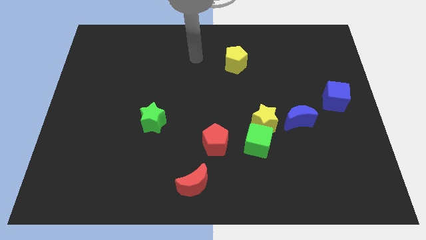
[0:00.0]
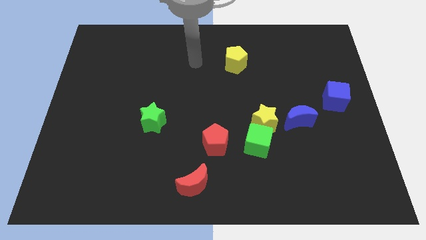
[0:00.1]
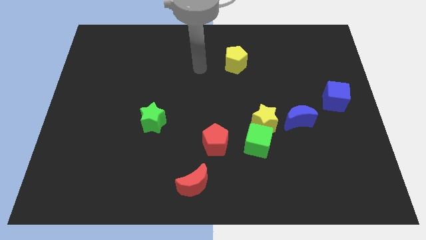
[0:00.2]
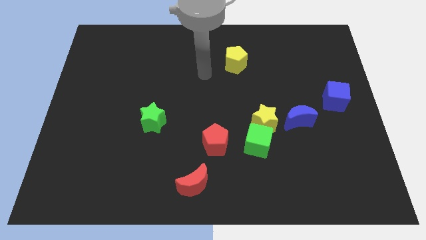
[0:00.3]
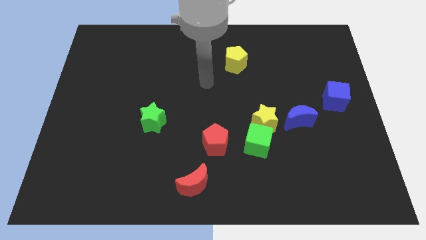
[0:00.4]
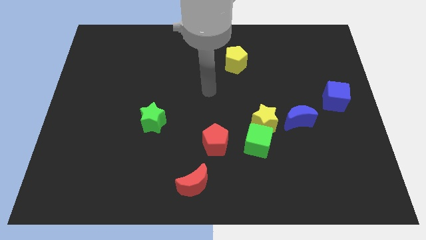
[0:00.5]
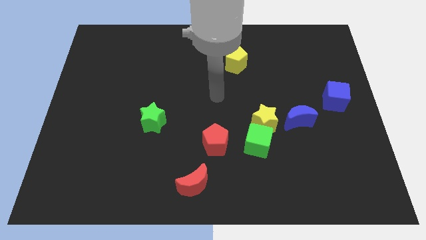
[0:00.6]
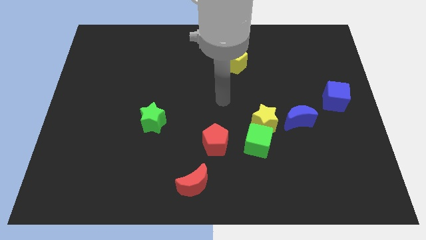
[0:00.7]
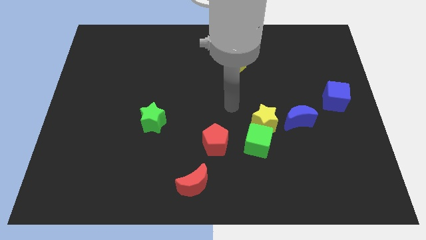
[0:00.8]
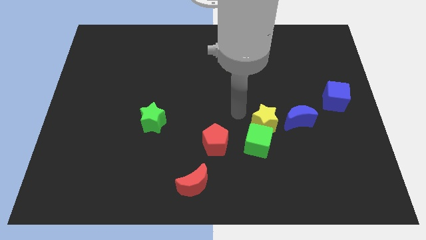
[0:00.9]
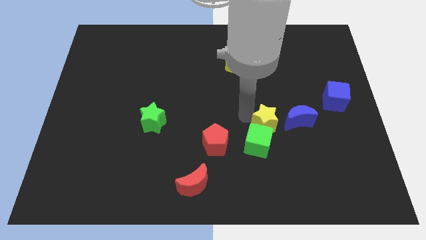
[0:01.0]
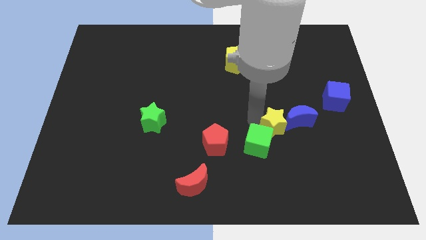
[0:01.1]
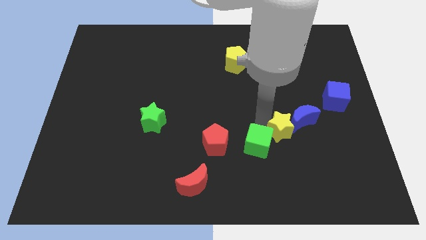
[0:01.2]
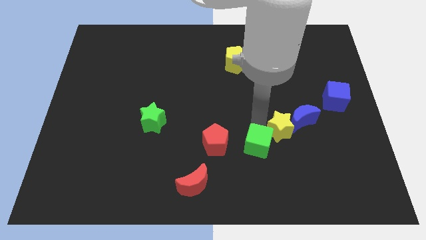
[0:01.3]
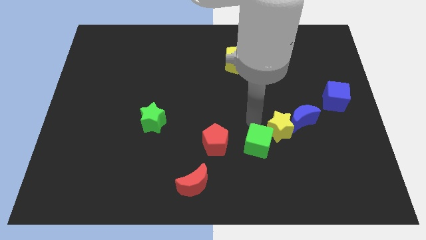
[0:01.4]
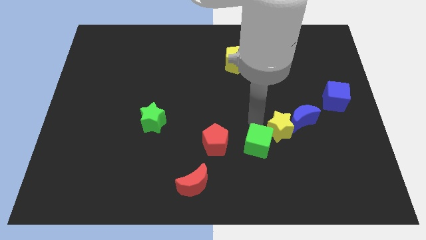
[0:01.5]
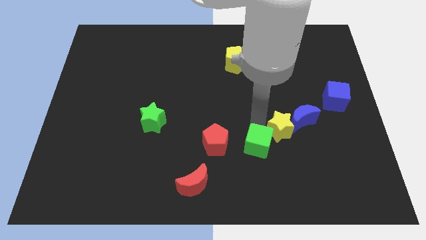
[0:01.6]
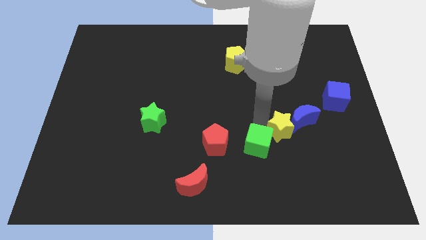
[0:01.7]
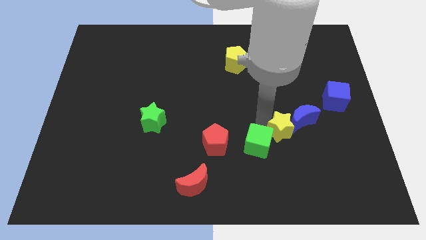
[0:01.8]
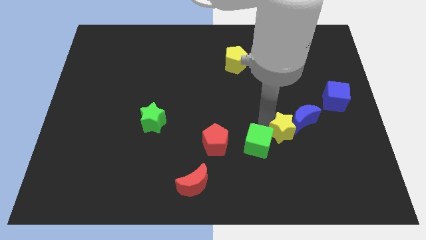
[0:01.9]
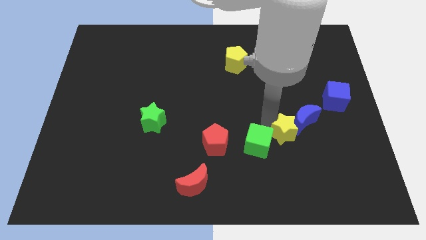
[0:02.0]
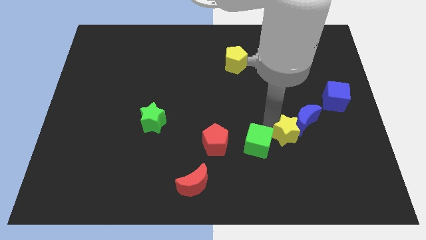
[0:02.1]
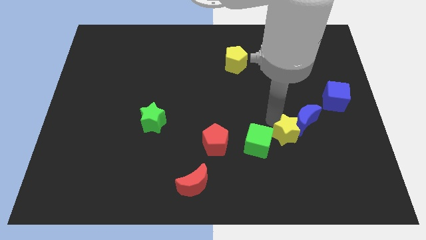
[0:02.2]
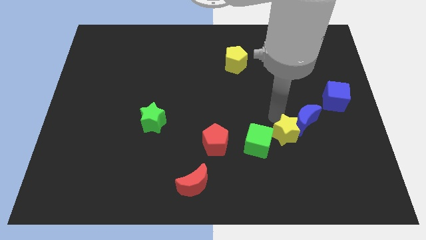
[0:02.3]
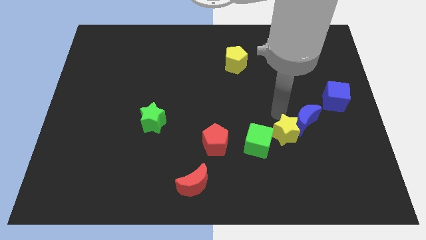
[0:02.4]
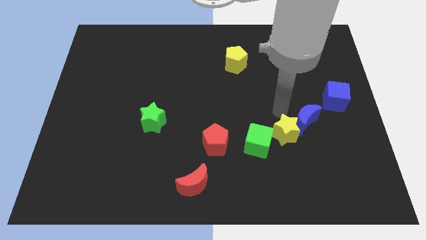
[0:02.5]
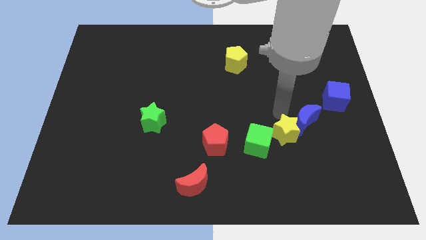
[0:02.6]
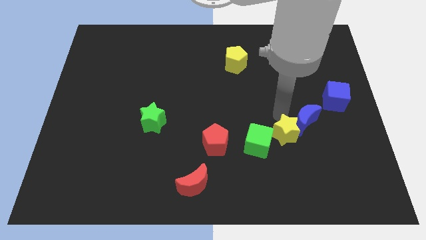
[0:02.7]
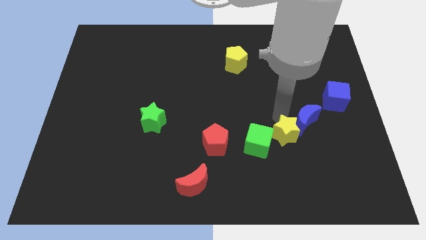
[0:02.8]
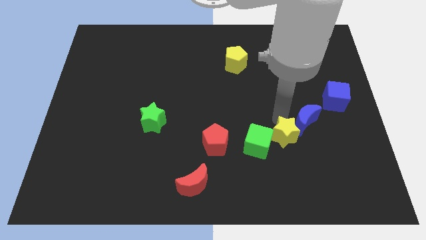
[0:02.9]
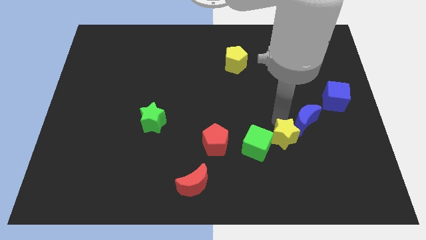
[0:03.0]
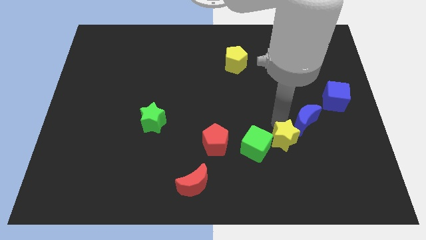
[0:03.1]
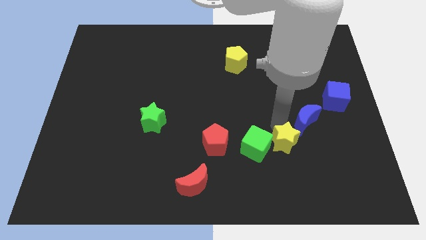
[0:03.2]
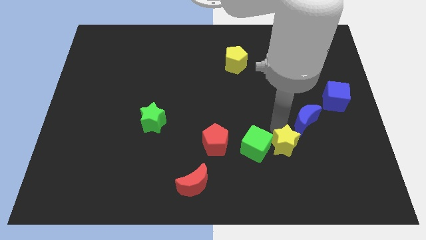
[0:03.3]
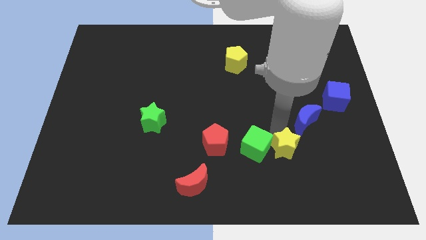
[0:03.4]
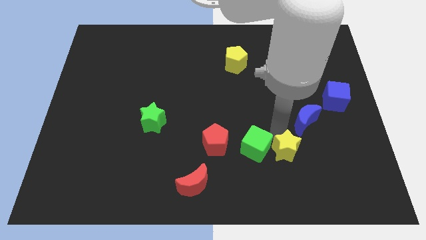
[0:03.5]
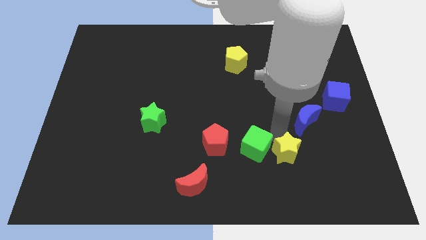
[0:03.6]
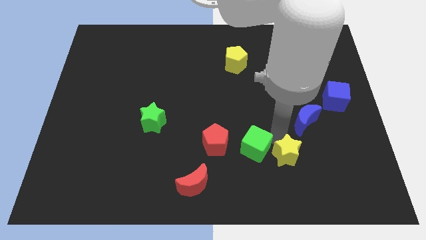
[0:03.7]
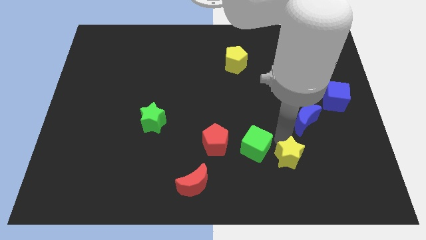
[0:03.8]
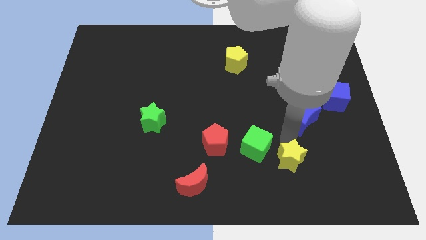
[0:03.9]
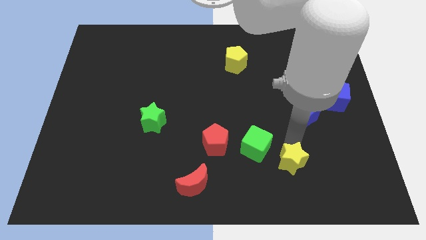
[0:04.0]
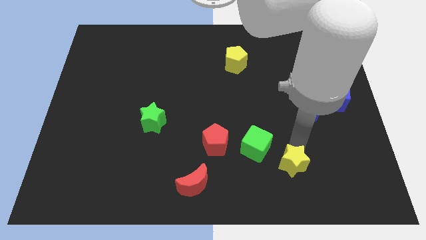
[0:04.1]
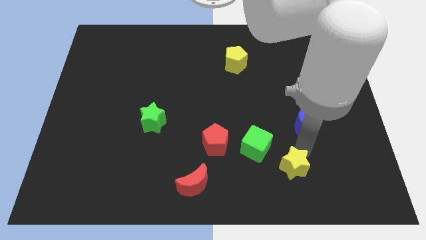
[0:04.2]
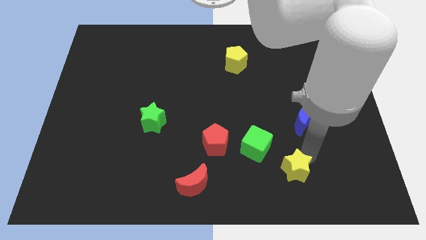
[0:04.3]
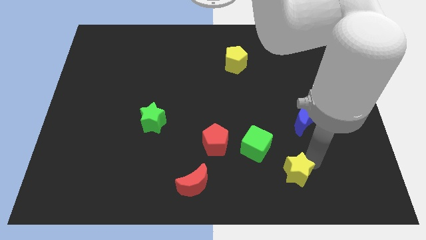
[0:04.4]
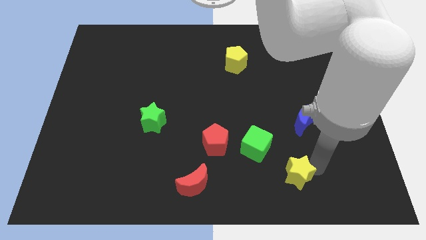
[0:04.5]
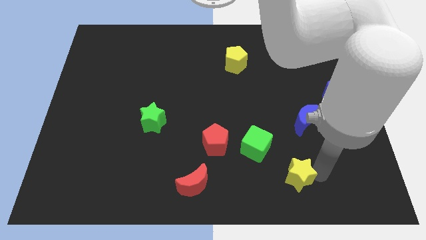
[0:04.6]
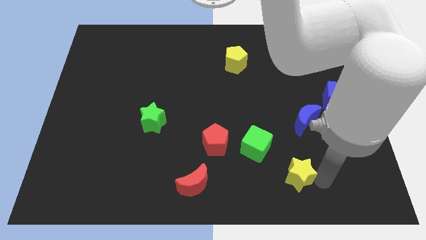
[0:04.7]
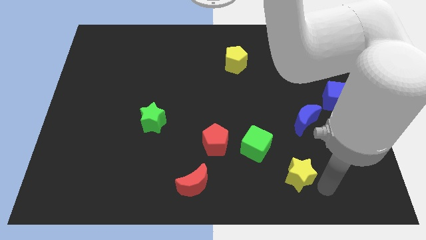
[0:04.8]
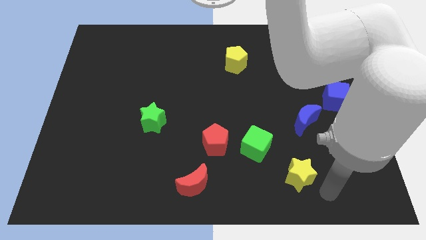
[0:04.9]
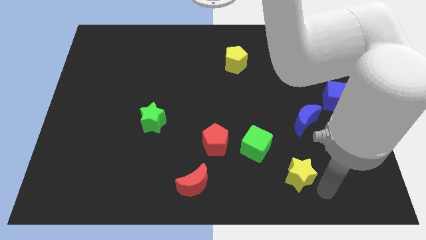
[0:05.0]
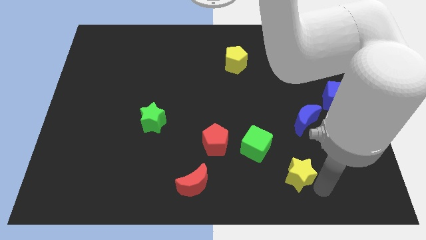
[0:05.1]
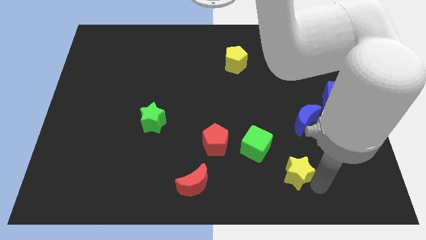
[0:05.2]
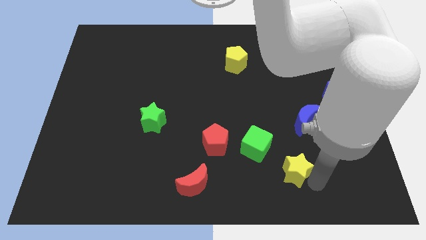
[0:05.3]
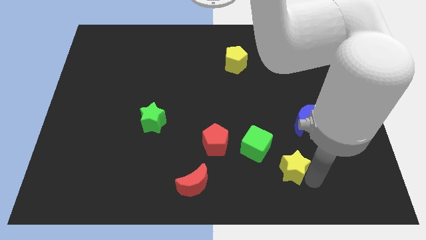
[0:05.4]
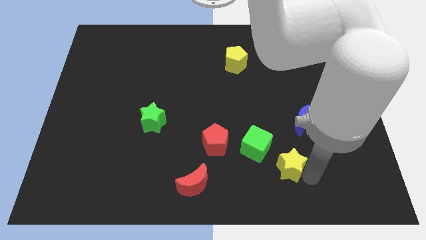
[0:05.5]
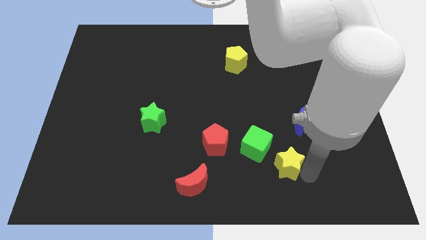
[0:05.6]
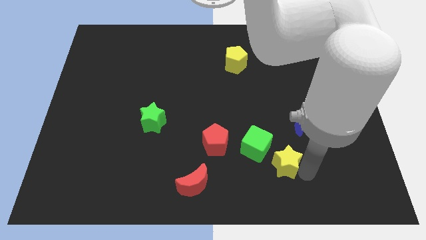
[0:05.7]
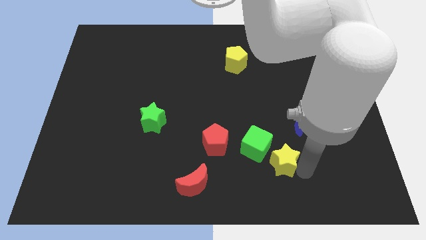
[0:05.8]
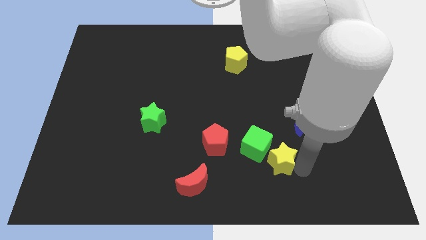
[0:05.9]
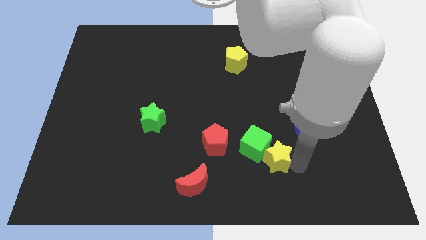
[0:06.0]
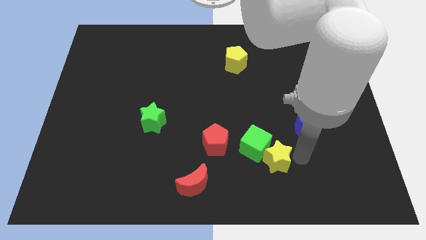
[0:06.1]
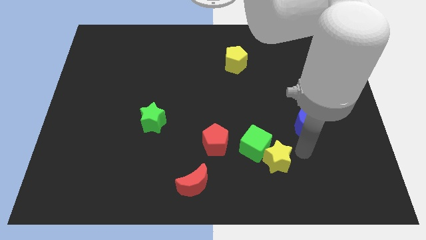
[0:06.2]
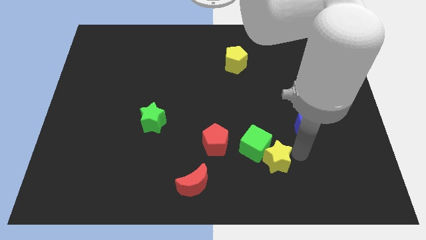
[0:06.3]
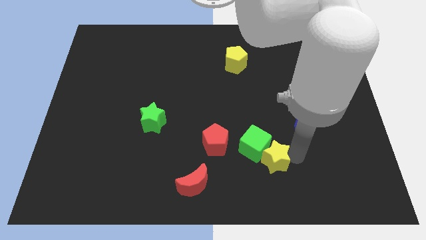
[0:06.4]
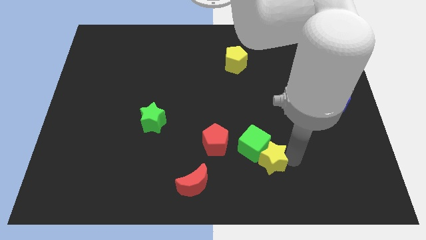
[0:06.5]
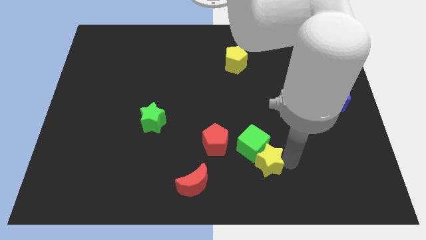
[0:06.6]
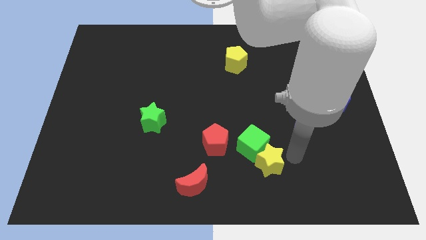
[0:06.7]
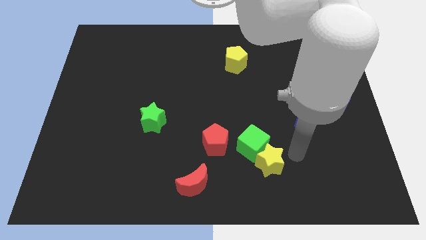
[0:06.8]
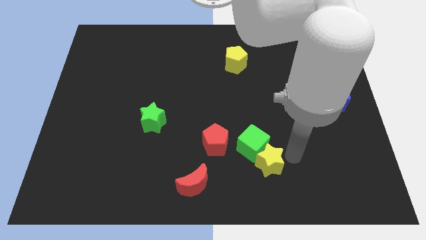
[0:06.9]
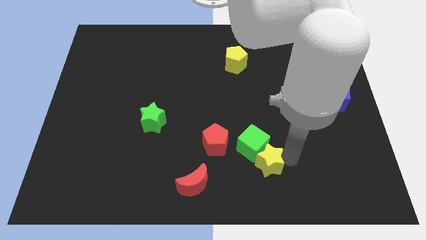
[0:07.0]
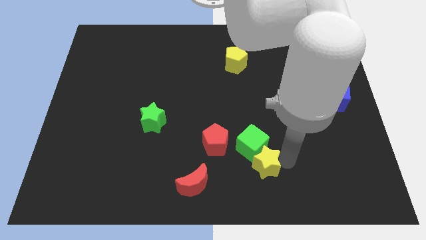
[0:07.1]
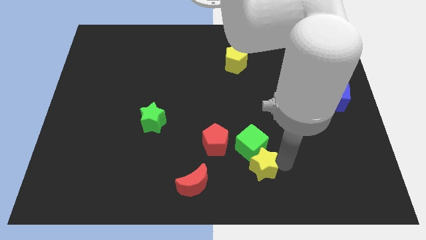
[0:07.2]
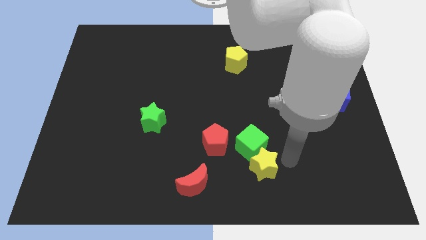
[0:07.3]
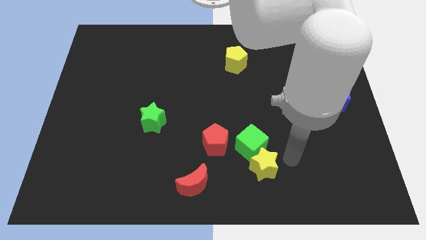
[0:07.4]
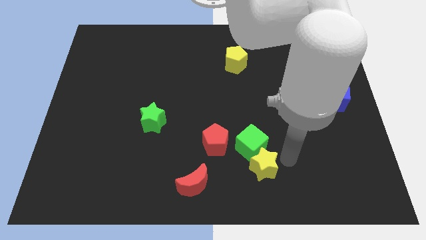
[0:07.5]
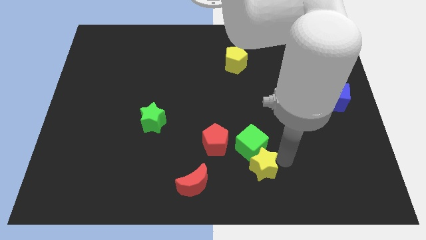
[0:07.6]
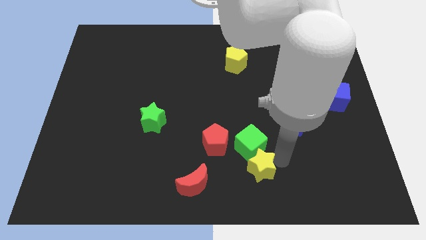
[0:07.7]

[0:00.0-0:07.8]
push the yellow star to the bottom
